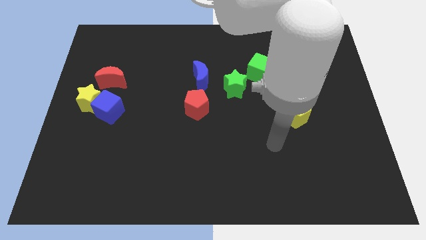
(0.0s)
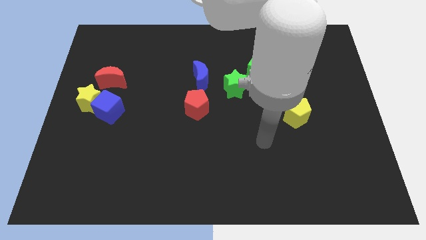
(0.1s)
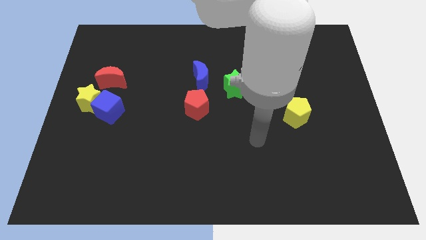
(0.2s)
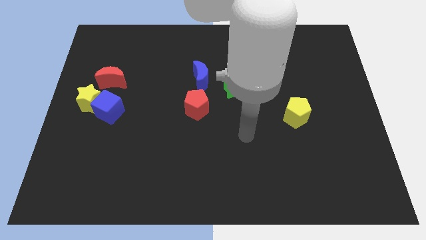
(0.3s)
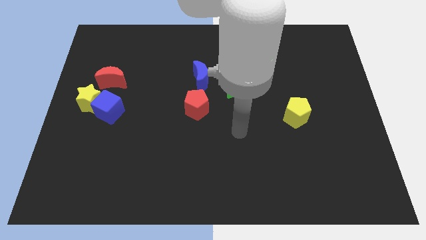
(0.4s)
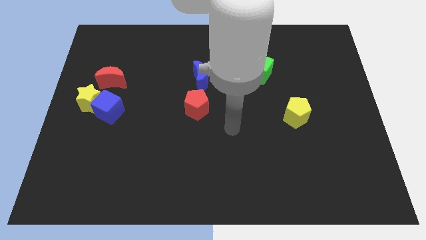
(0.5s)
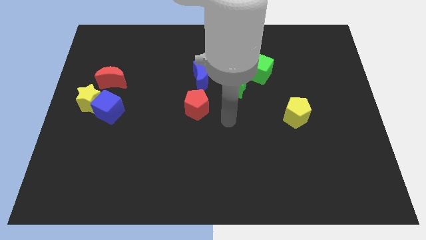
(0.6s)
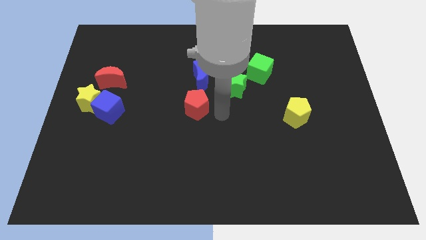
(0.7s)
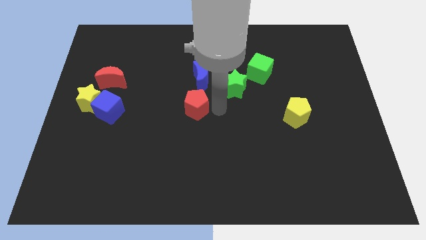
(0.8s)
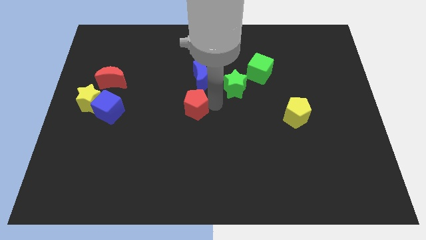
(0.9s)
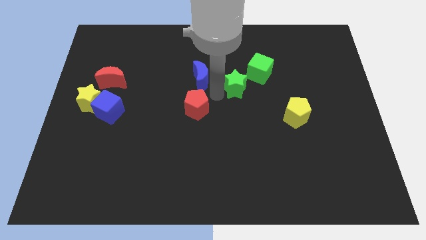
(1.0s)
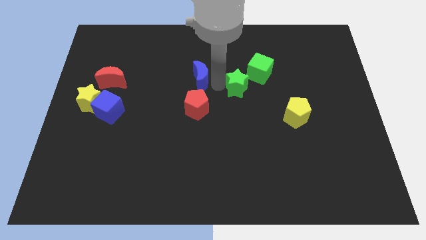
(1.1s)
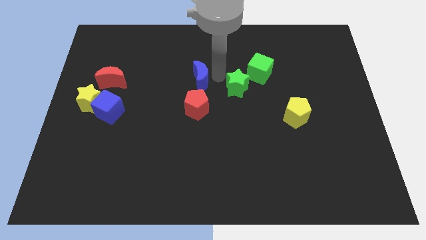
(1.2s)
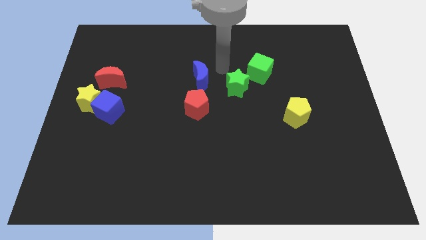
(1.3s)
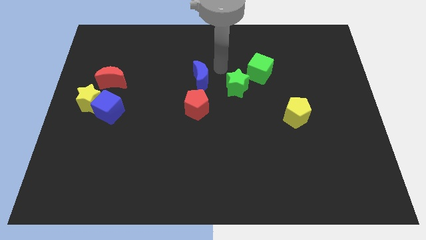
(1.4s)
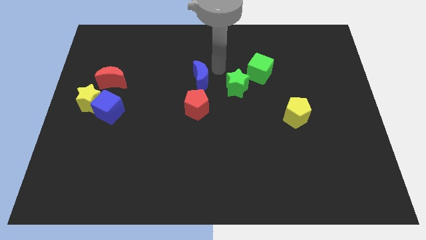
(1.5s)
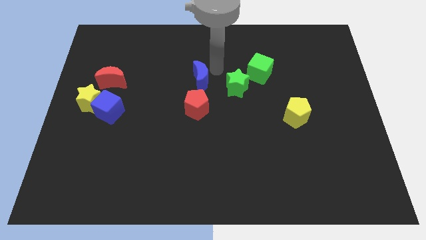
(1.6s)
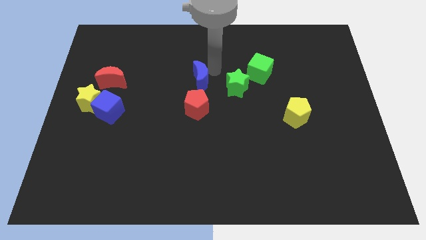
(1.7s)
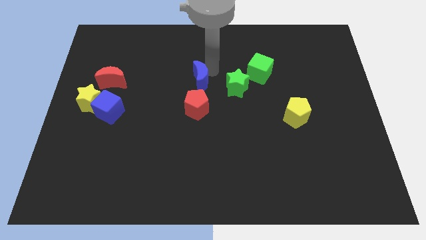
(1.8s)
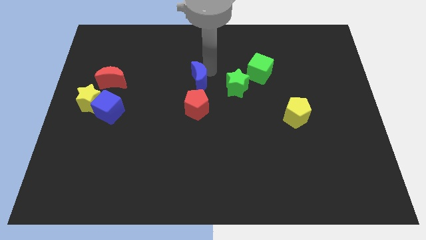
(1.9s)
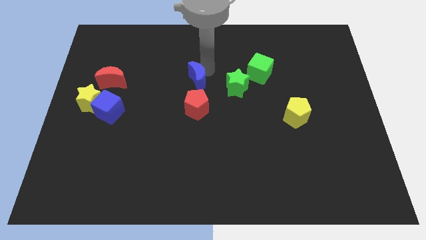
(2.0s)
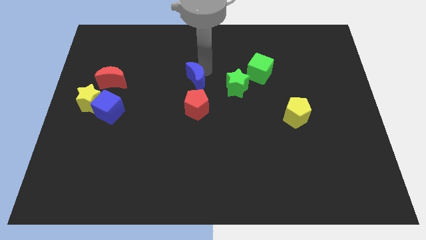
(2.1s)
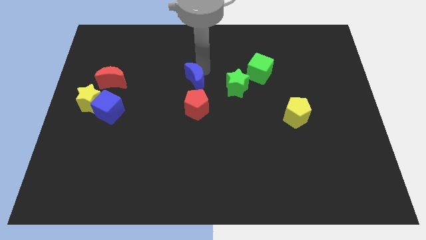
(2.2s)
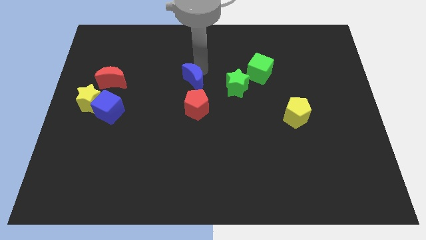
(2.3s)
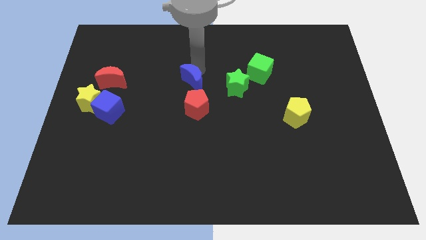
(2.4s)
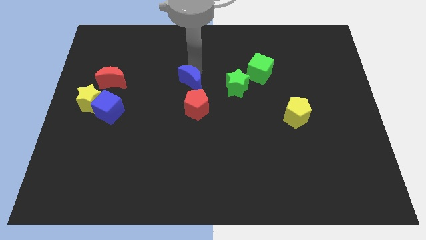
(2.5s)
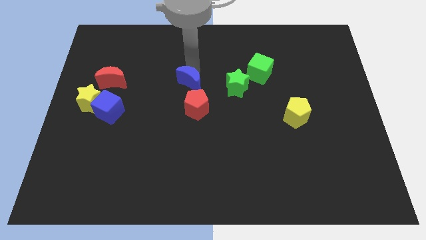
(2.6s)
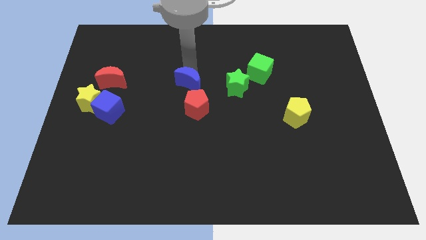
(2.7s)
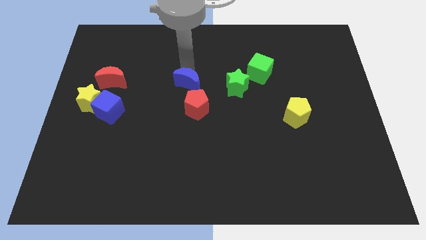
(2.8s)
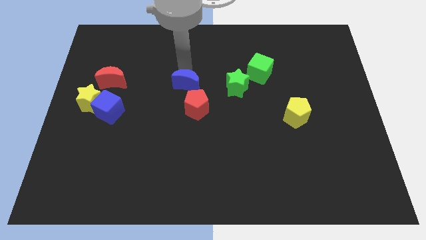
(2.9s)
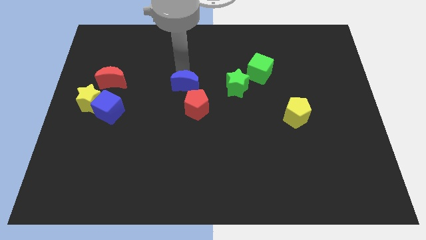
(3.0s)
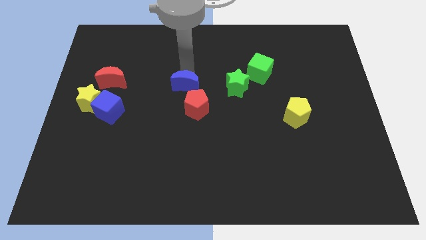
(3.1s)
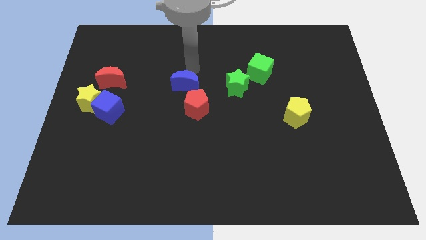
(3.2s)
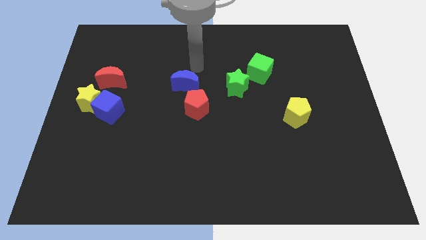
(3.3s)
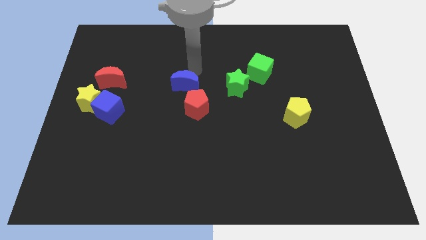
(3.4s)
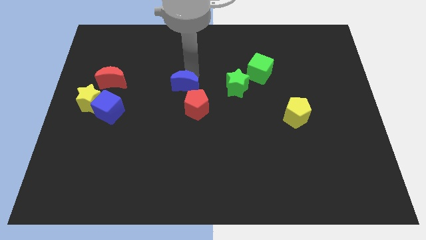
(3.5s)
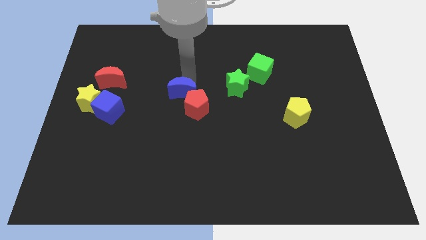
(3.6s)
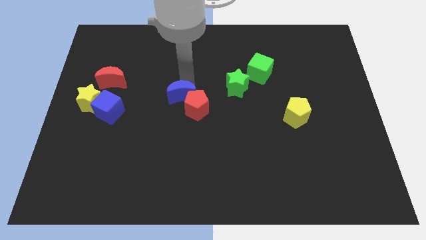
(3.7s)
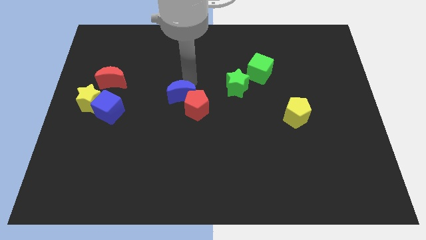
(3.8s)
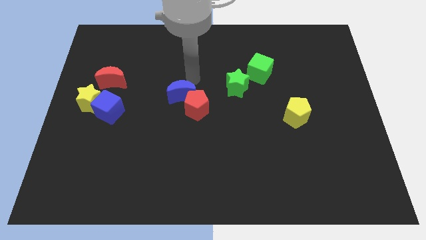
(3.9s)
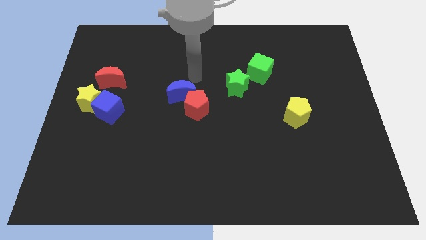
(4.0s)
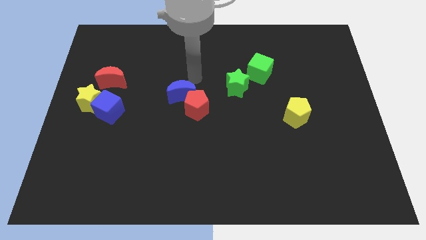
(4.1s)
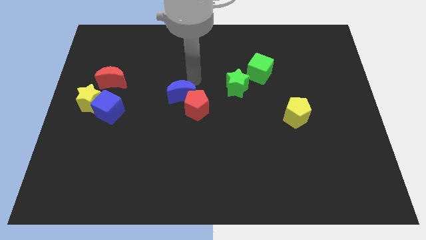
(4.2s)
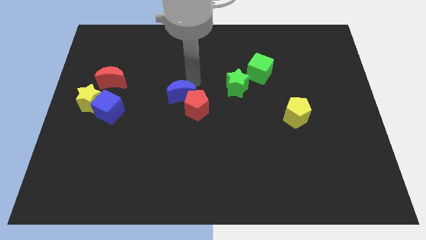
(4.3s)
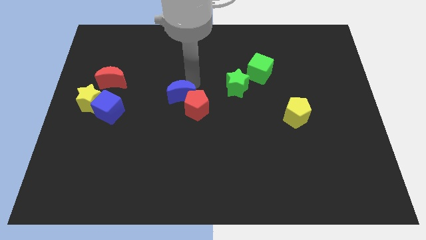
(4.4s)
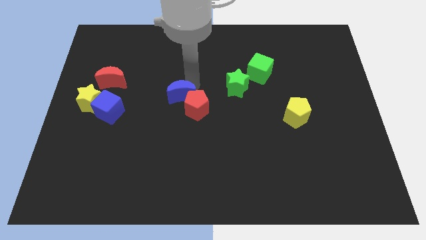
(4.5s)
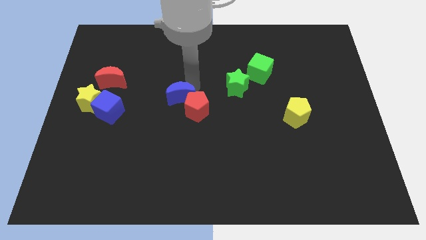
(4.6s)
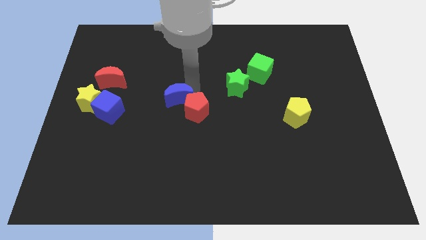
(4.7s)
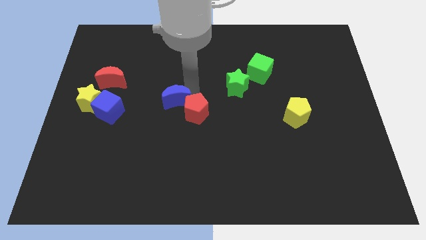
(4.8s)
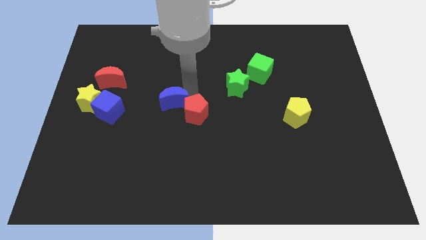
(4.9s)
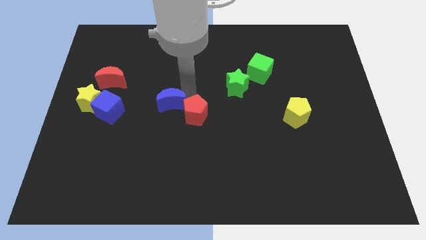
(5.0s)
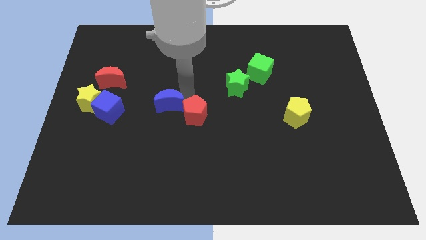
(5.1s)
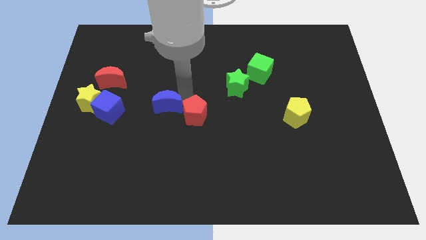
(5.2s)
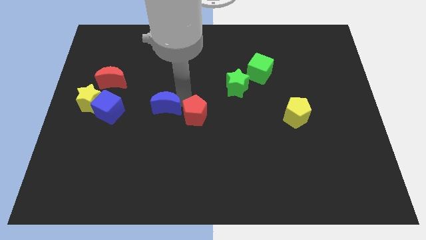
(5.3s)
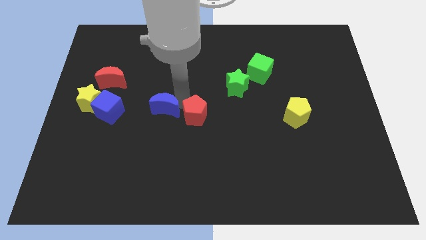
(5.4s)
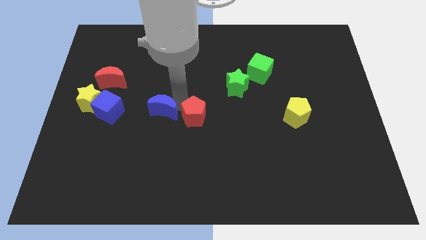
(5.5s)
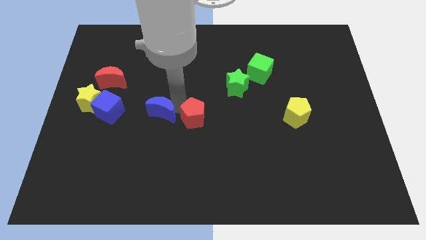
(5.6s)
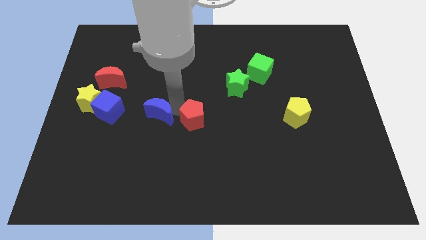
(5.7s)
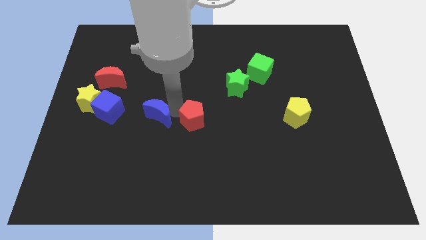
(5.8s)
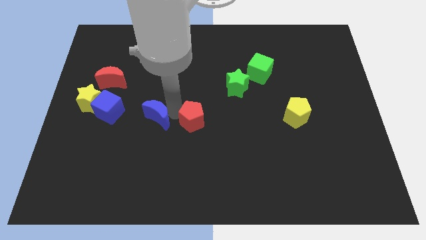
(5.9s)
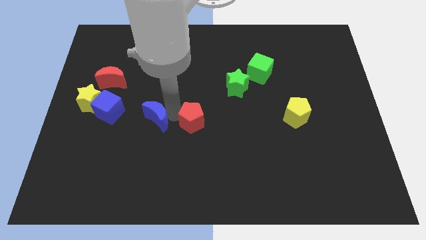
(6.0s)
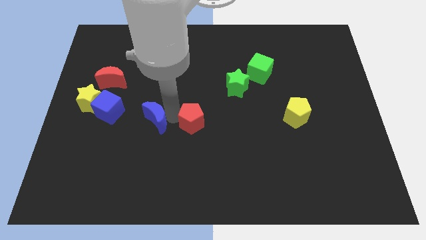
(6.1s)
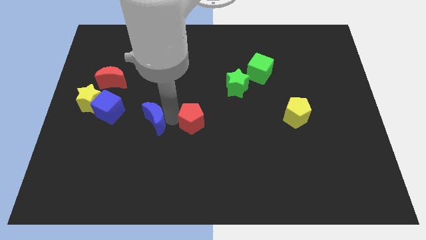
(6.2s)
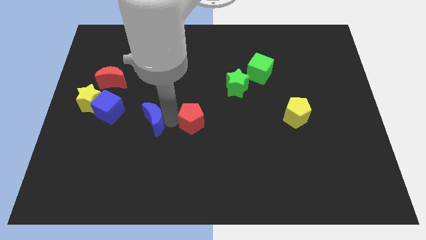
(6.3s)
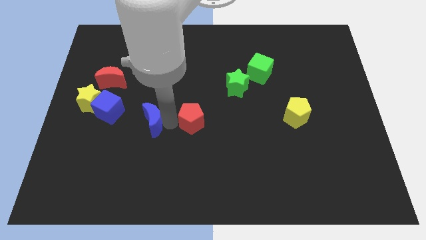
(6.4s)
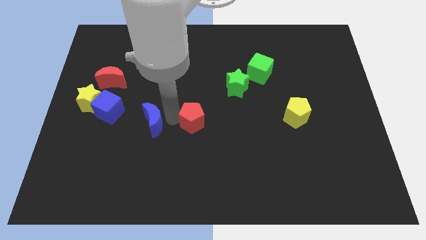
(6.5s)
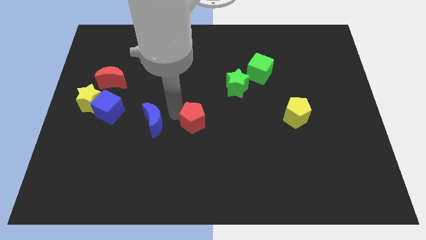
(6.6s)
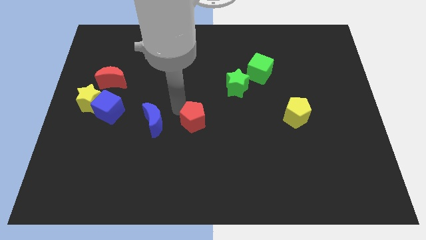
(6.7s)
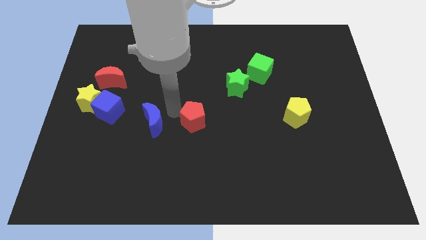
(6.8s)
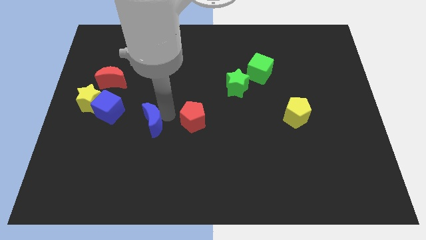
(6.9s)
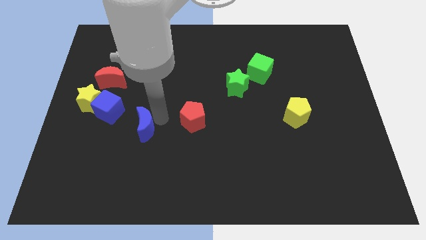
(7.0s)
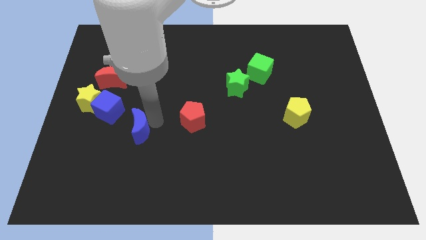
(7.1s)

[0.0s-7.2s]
move the blue moon down and then to the left

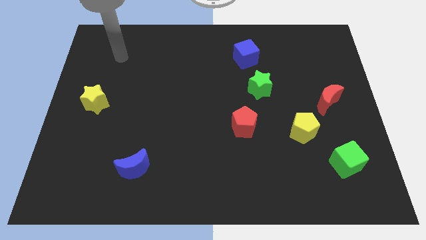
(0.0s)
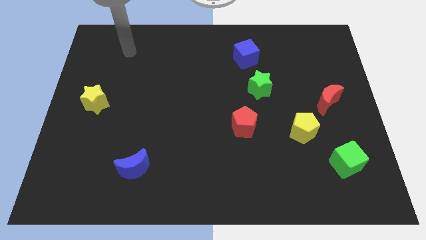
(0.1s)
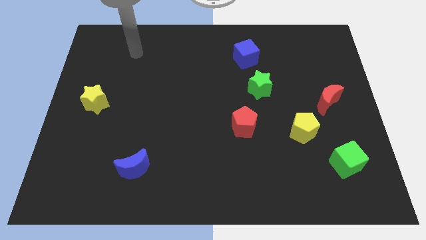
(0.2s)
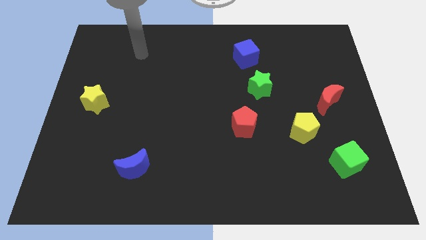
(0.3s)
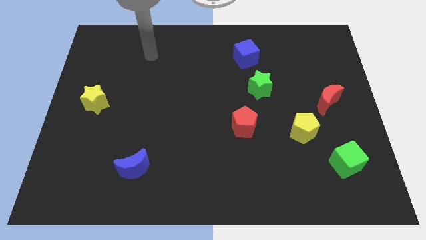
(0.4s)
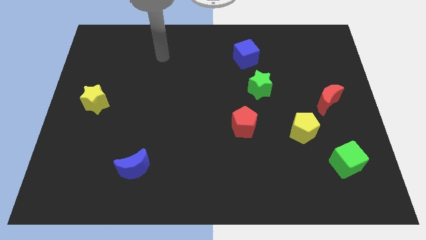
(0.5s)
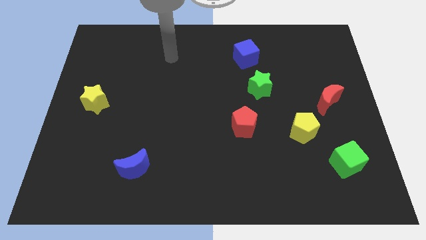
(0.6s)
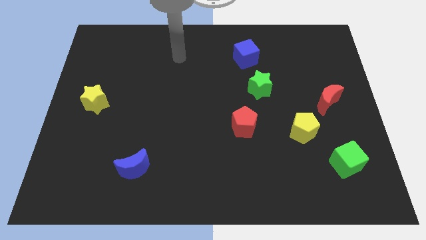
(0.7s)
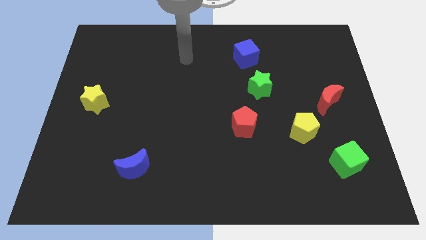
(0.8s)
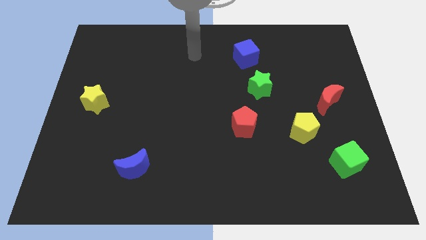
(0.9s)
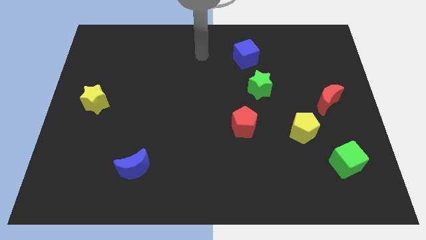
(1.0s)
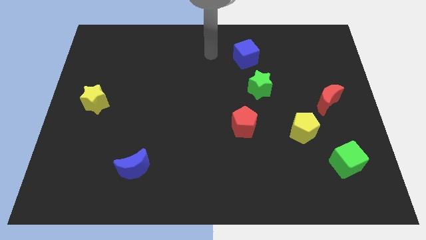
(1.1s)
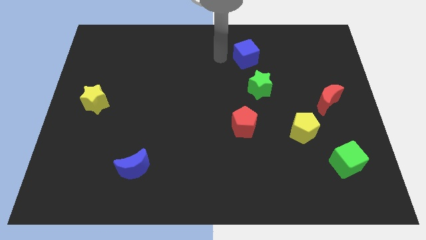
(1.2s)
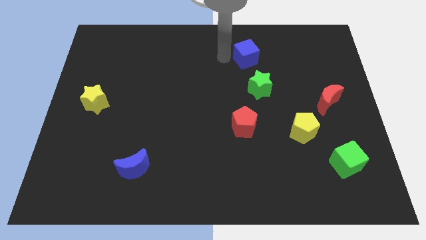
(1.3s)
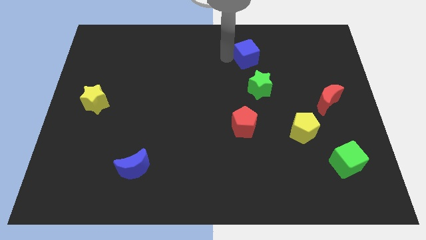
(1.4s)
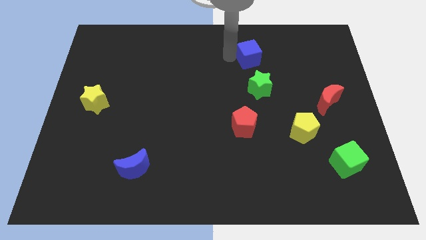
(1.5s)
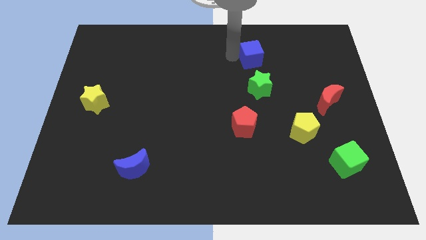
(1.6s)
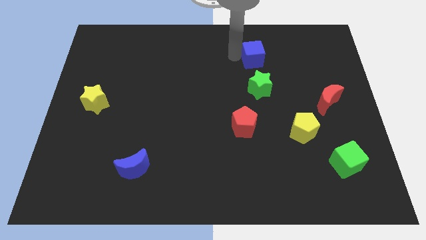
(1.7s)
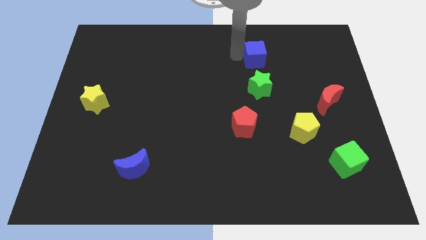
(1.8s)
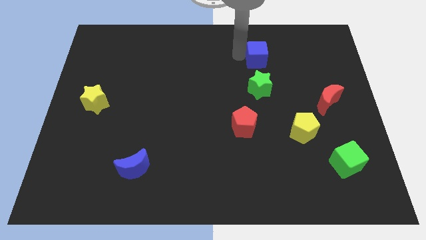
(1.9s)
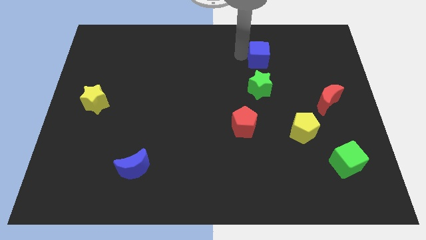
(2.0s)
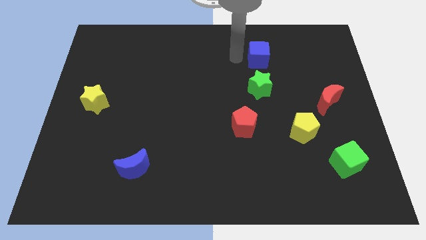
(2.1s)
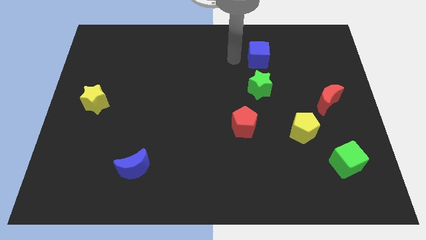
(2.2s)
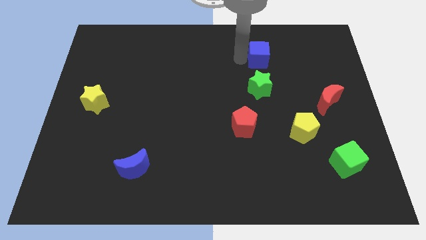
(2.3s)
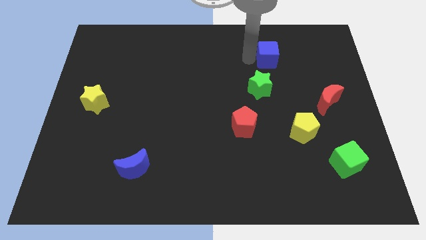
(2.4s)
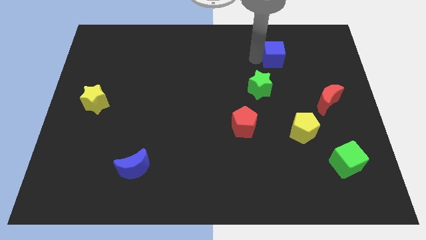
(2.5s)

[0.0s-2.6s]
slide the blue cube a bit to the right
